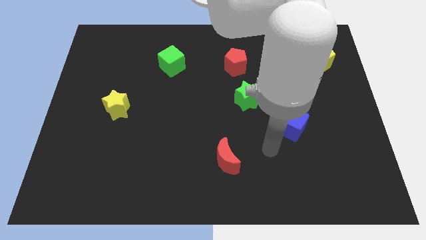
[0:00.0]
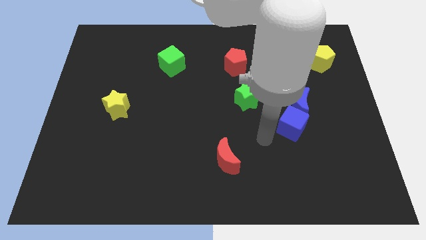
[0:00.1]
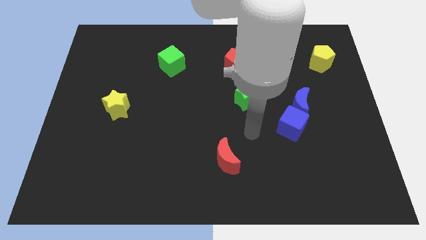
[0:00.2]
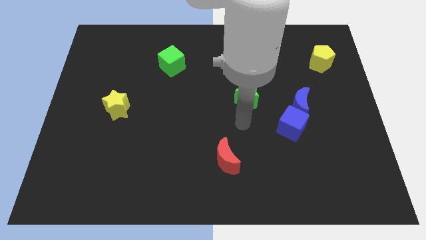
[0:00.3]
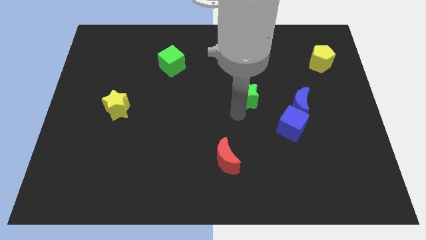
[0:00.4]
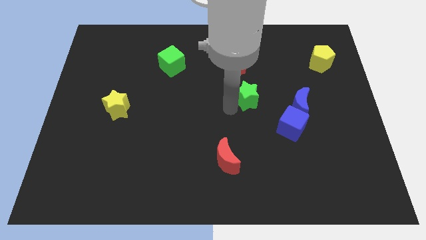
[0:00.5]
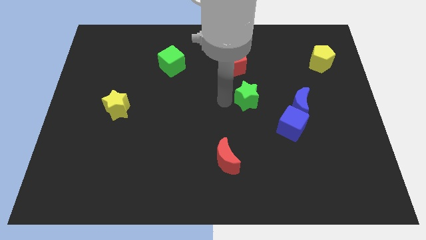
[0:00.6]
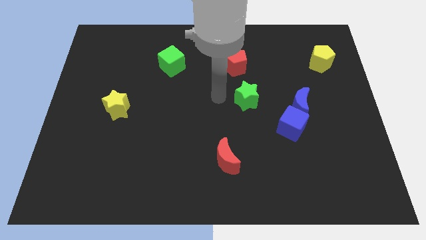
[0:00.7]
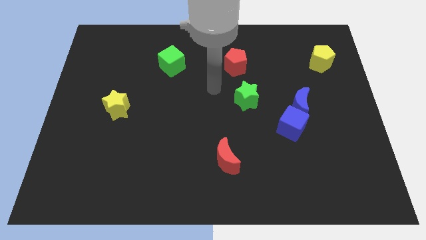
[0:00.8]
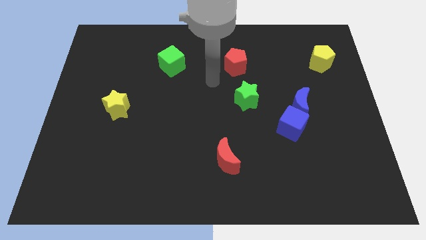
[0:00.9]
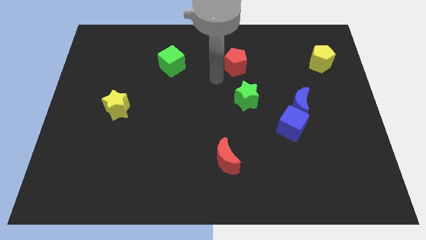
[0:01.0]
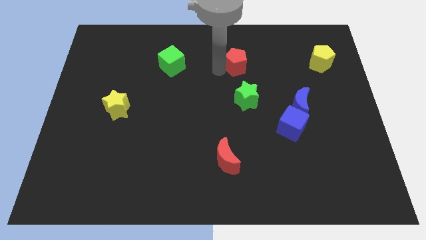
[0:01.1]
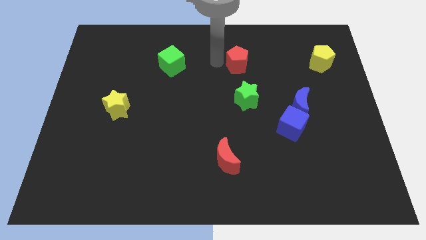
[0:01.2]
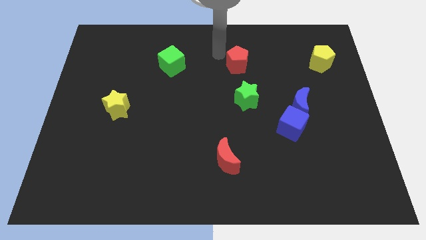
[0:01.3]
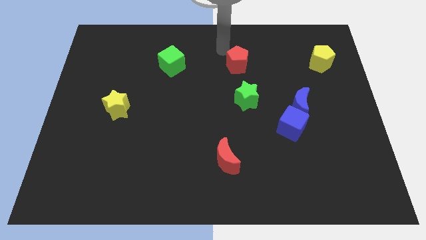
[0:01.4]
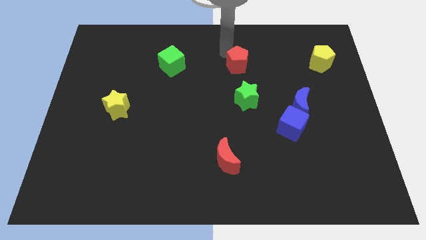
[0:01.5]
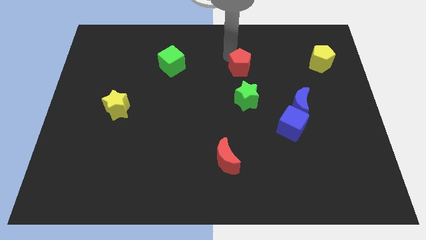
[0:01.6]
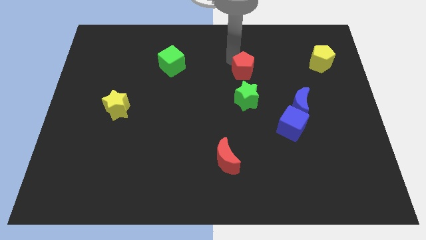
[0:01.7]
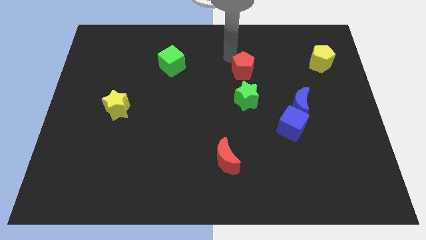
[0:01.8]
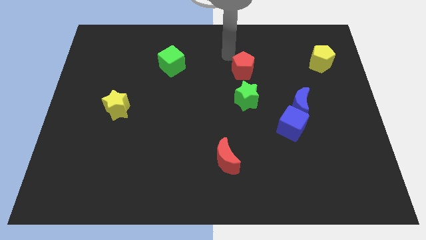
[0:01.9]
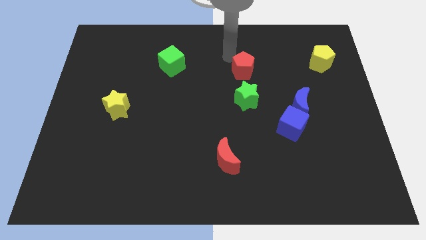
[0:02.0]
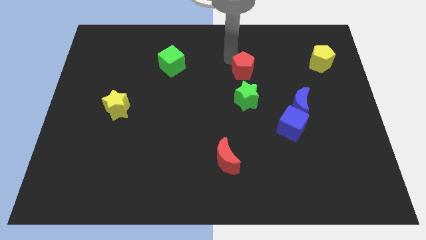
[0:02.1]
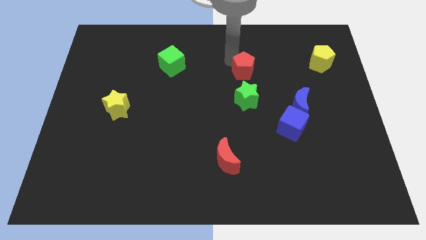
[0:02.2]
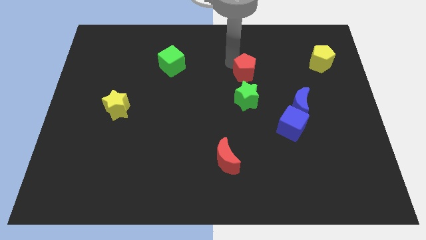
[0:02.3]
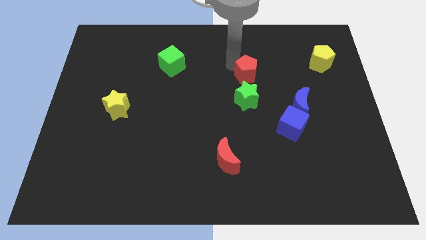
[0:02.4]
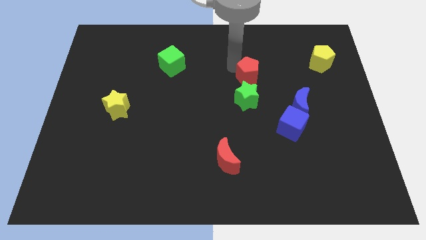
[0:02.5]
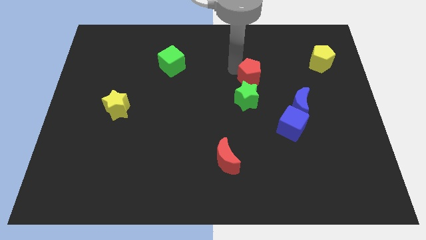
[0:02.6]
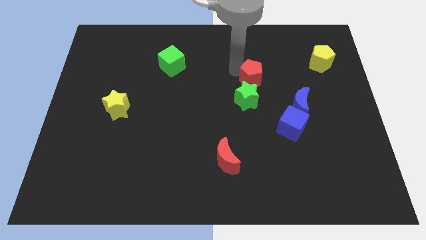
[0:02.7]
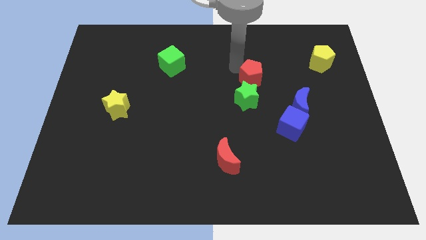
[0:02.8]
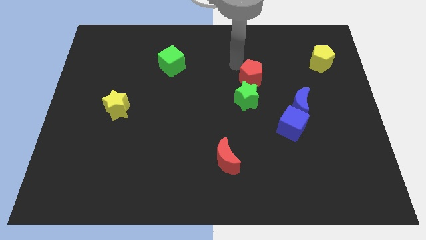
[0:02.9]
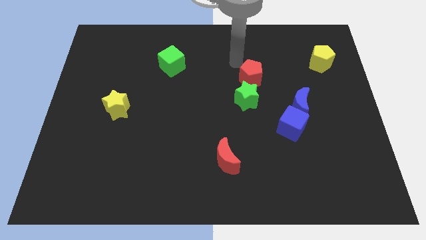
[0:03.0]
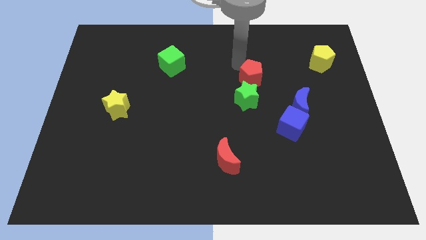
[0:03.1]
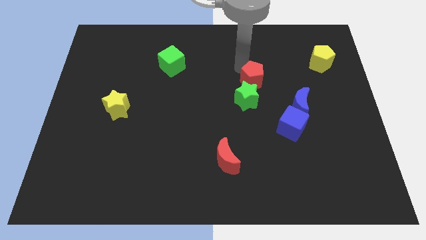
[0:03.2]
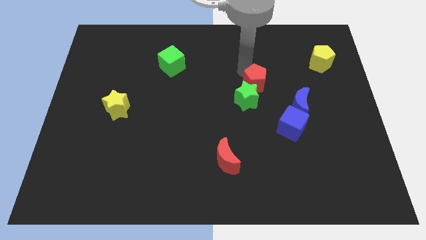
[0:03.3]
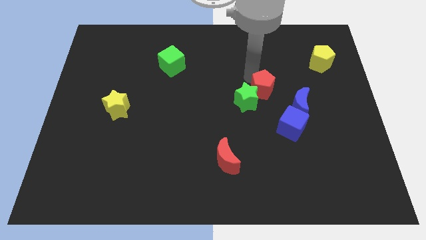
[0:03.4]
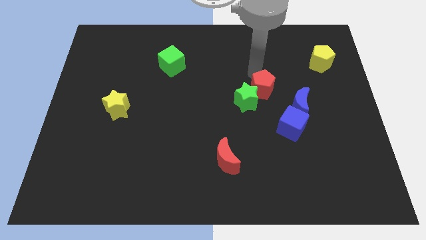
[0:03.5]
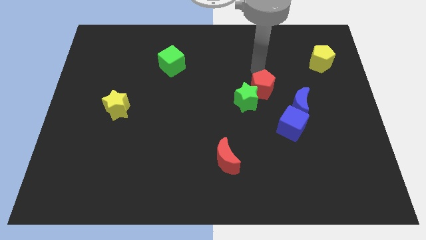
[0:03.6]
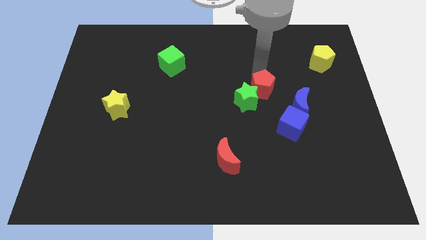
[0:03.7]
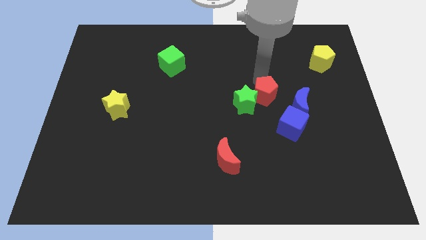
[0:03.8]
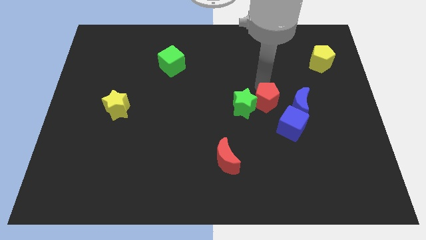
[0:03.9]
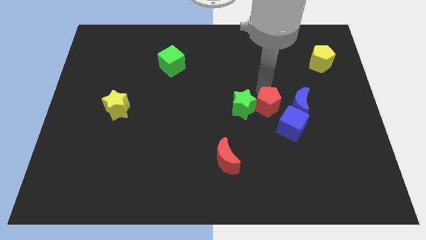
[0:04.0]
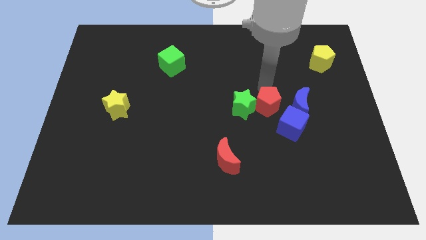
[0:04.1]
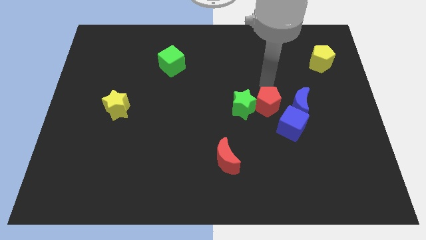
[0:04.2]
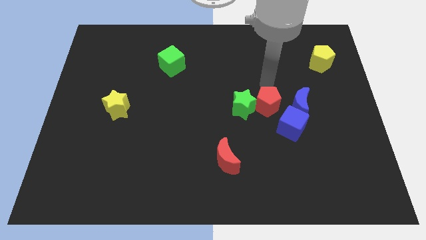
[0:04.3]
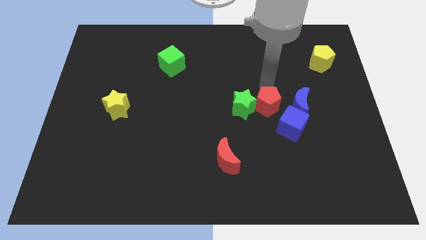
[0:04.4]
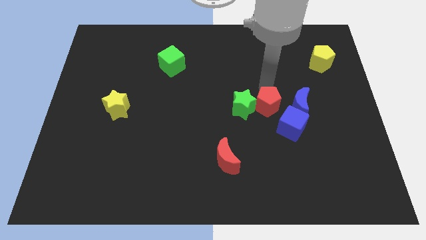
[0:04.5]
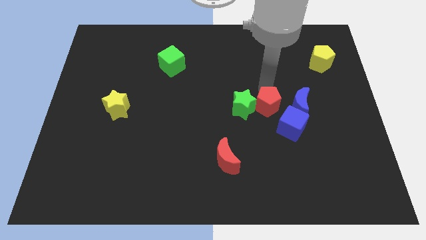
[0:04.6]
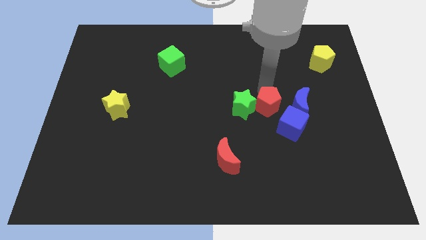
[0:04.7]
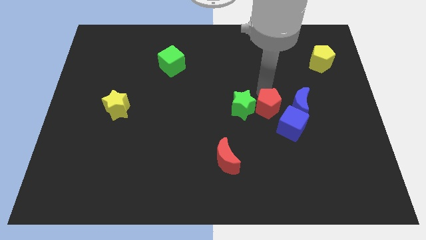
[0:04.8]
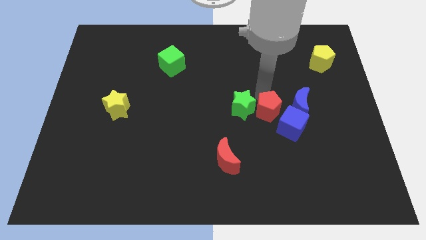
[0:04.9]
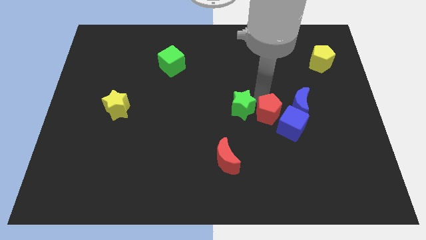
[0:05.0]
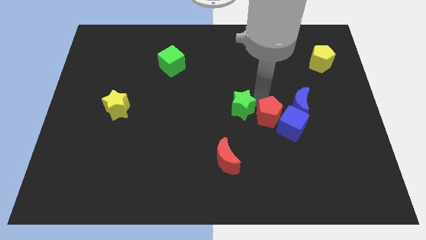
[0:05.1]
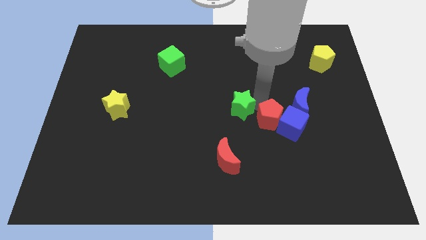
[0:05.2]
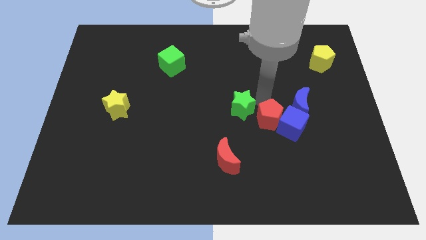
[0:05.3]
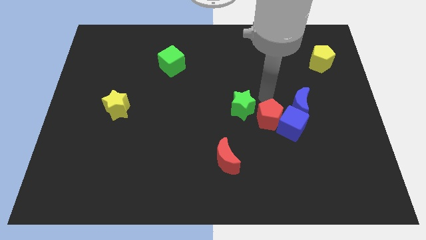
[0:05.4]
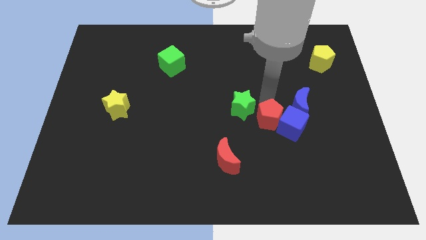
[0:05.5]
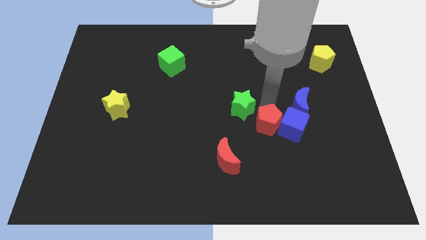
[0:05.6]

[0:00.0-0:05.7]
put the red pentagon diagonally down and to the left of the blue cube

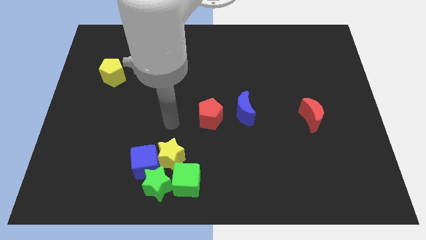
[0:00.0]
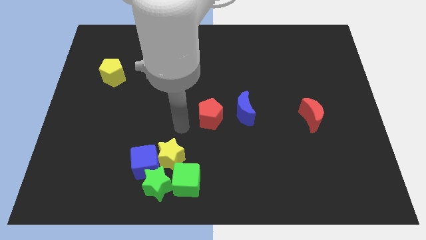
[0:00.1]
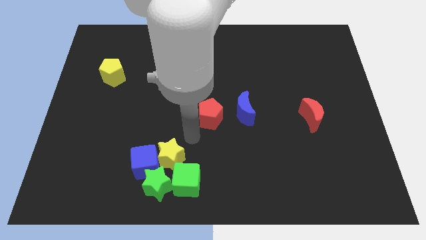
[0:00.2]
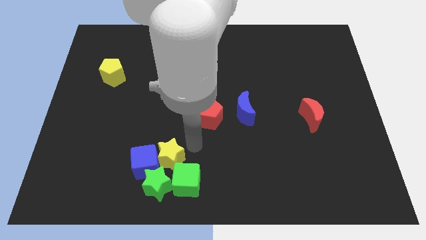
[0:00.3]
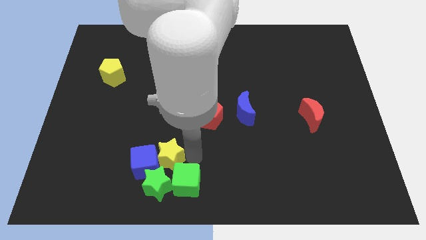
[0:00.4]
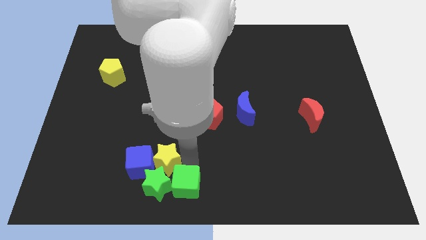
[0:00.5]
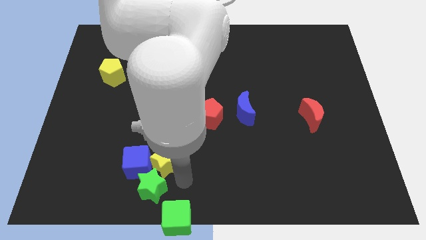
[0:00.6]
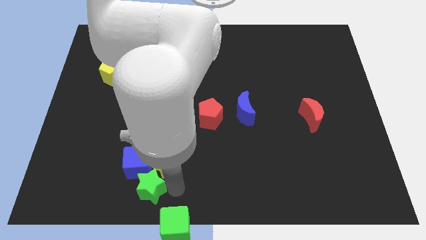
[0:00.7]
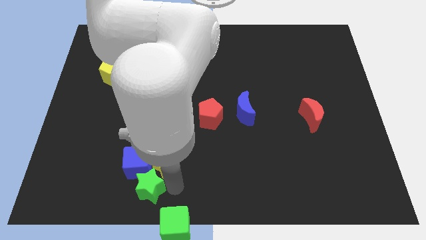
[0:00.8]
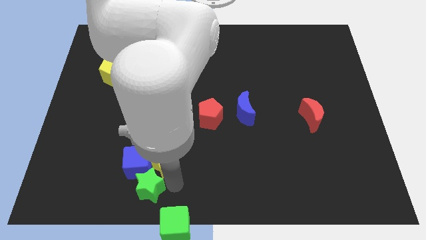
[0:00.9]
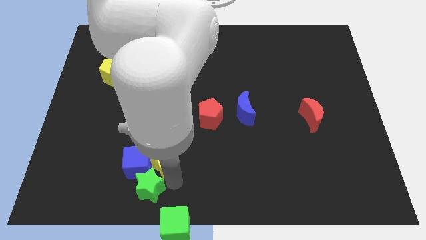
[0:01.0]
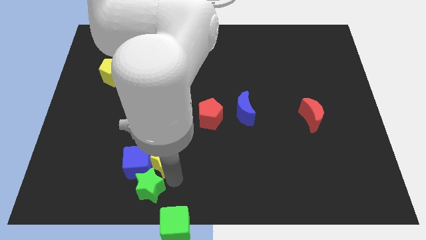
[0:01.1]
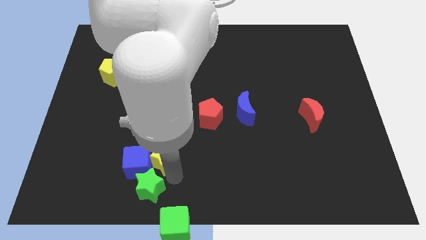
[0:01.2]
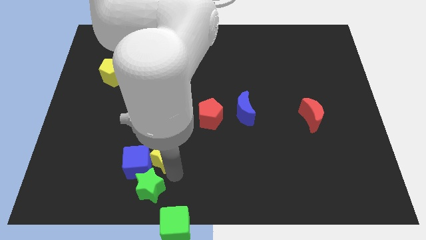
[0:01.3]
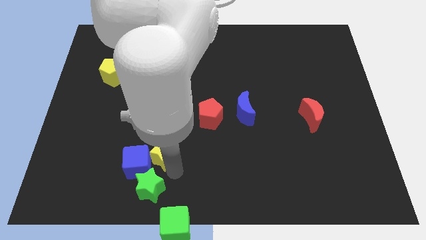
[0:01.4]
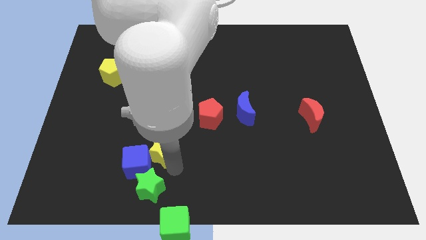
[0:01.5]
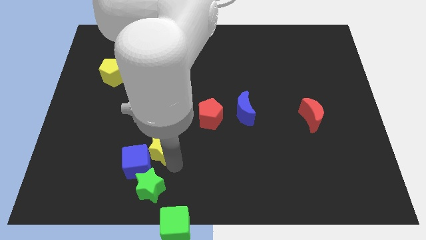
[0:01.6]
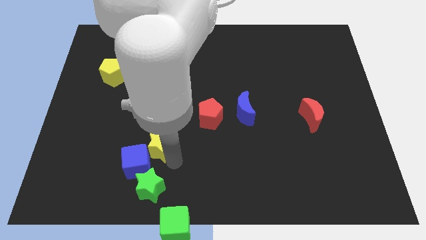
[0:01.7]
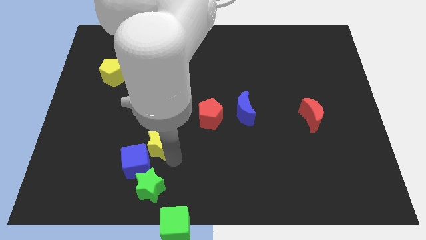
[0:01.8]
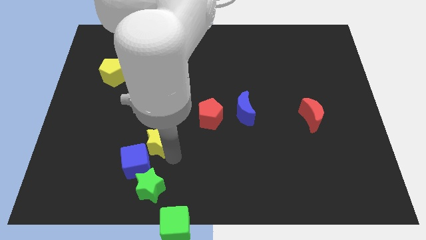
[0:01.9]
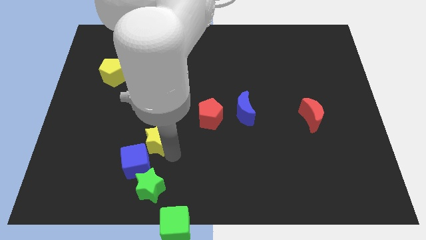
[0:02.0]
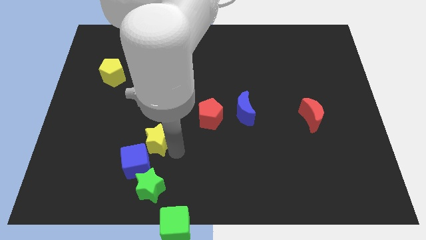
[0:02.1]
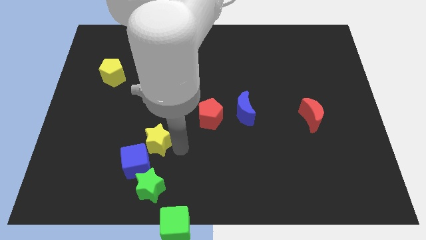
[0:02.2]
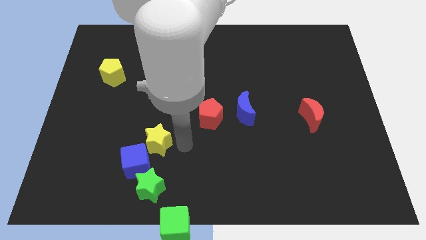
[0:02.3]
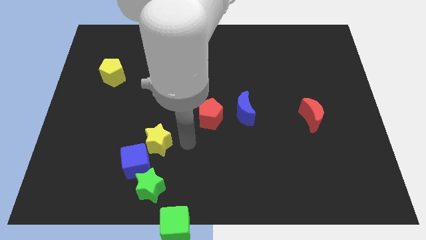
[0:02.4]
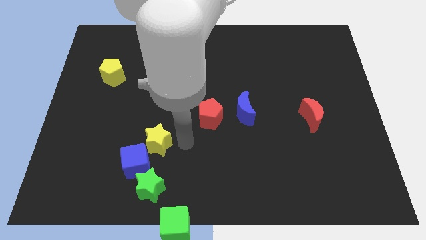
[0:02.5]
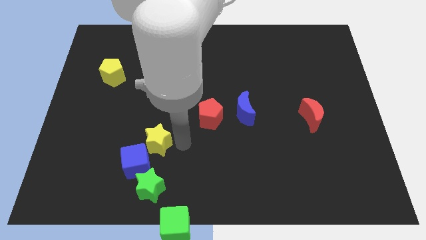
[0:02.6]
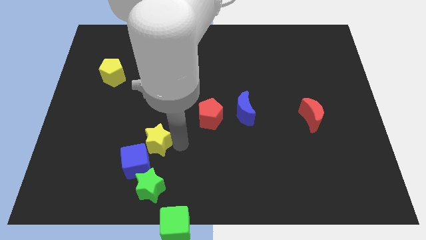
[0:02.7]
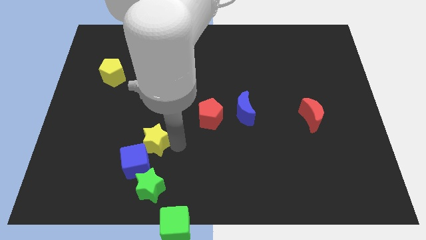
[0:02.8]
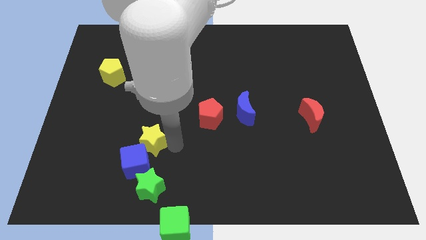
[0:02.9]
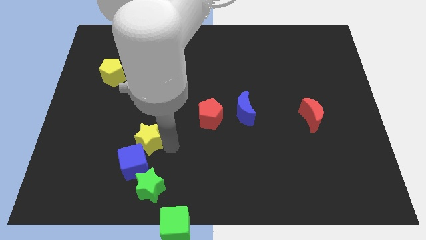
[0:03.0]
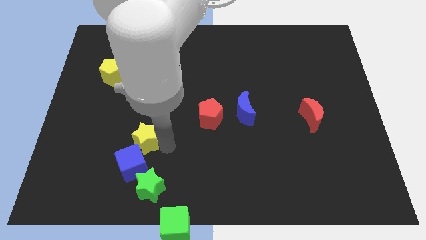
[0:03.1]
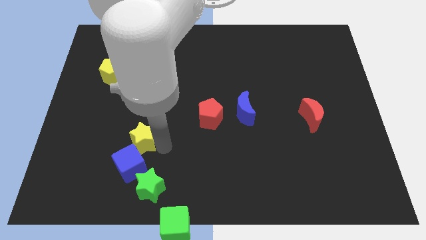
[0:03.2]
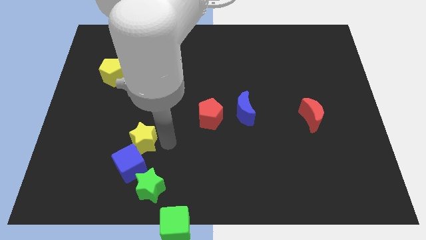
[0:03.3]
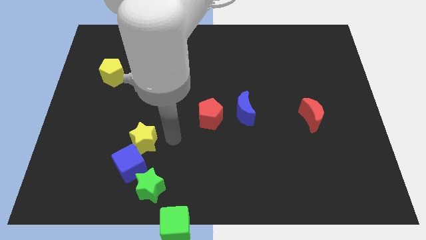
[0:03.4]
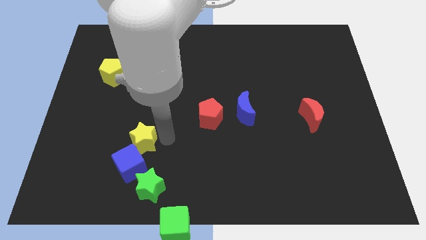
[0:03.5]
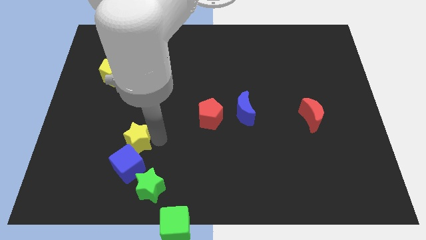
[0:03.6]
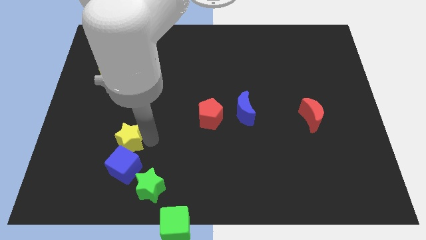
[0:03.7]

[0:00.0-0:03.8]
move the yellow star to the top left side of the blue cube
